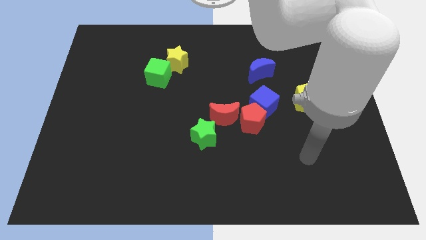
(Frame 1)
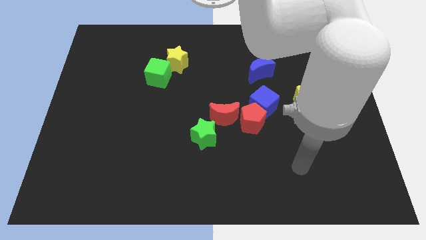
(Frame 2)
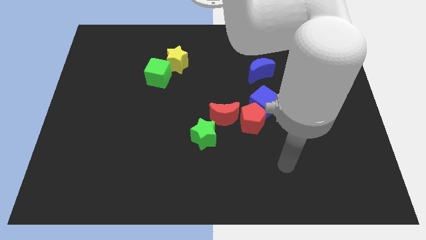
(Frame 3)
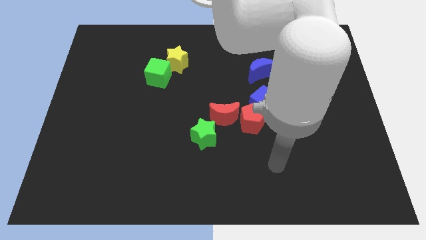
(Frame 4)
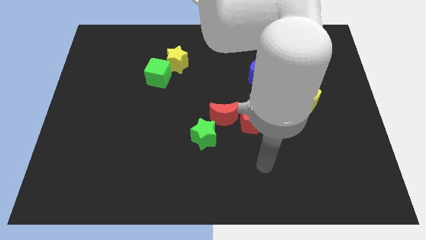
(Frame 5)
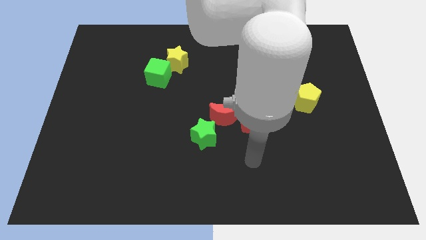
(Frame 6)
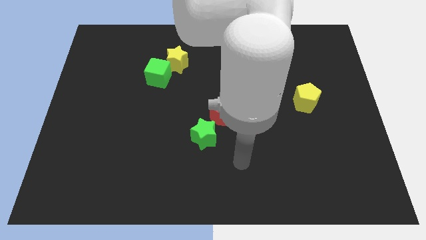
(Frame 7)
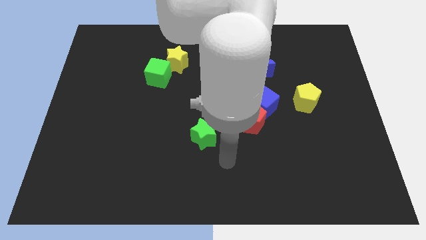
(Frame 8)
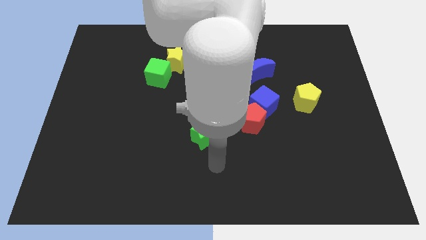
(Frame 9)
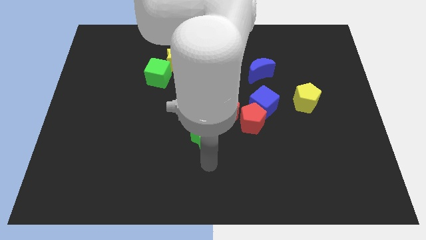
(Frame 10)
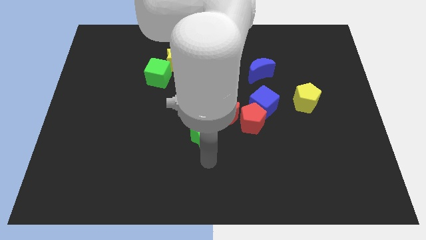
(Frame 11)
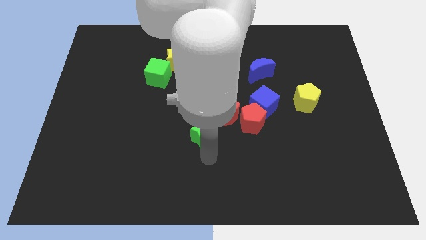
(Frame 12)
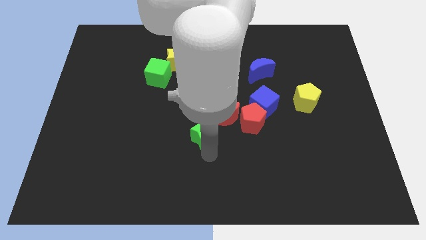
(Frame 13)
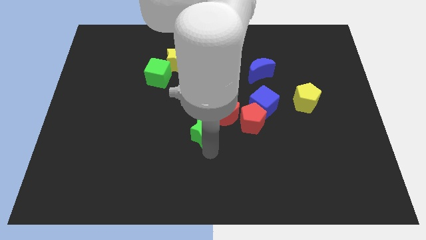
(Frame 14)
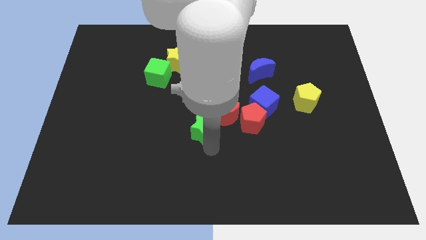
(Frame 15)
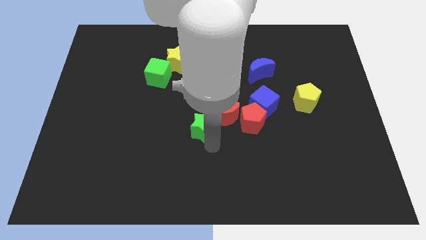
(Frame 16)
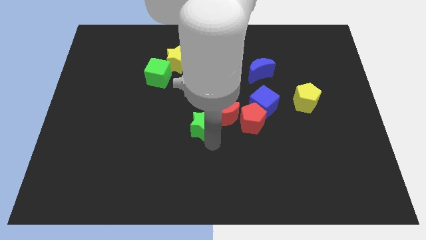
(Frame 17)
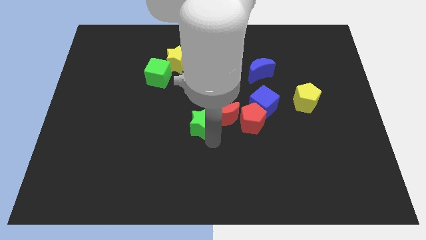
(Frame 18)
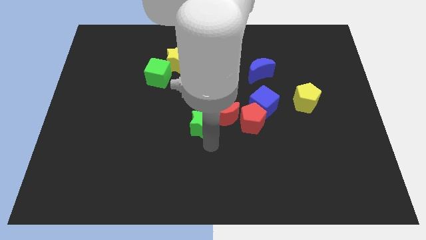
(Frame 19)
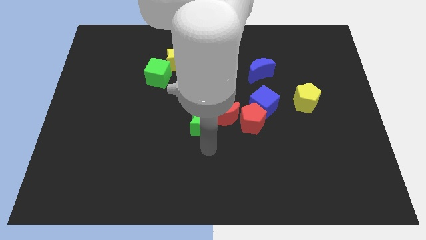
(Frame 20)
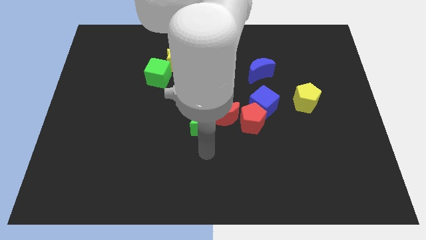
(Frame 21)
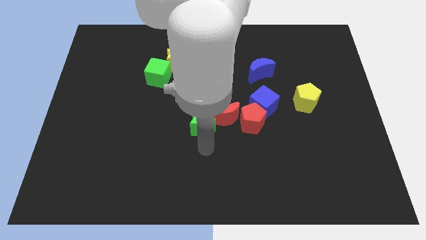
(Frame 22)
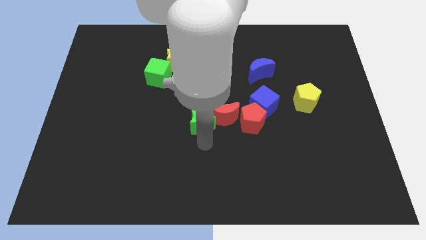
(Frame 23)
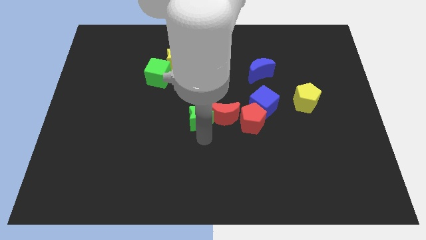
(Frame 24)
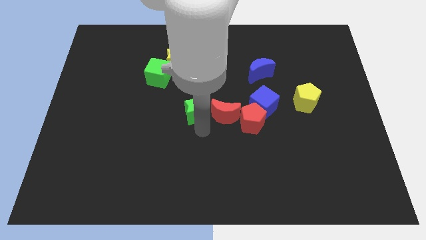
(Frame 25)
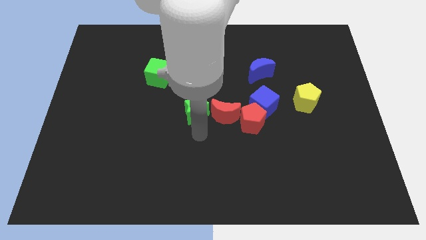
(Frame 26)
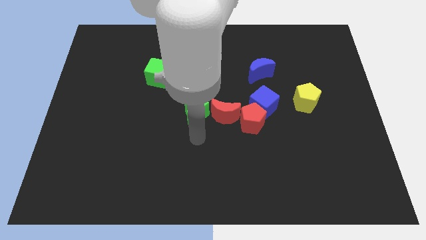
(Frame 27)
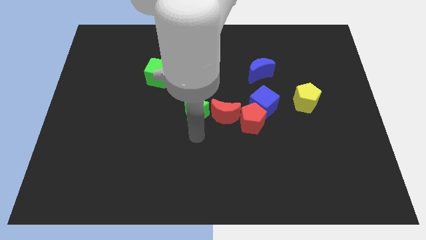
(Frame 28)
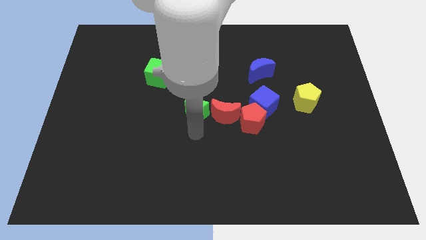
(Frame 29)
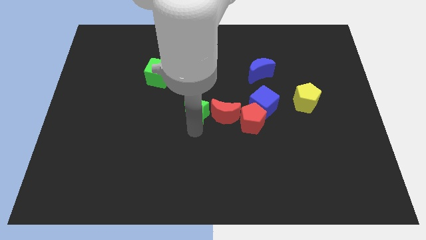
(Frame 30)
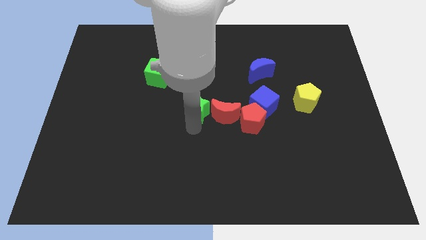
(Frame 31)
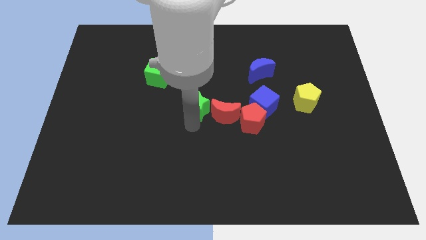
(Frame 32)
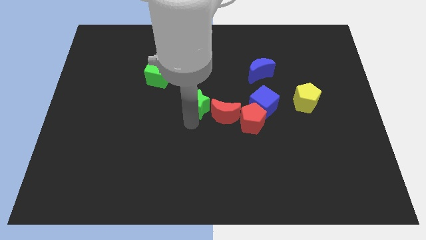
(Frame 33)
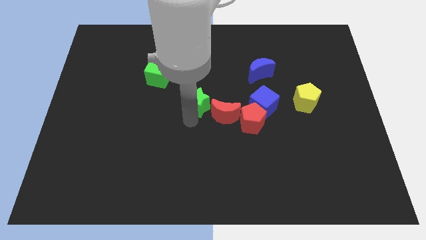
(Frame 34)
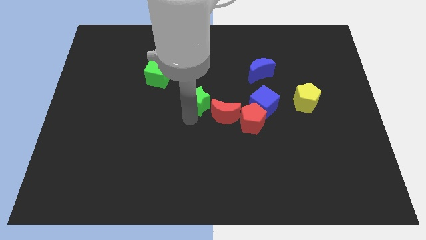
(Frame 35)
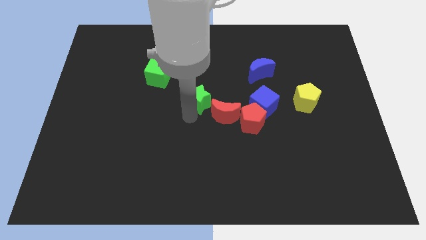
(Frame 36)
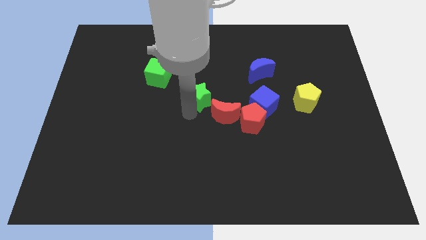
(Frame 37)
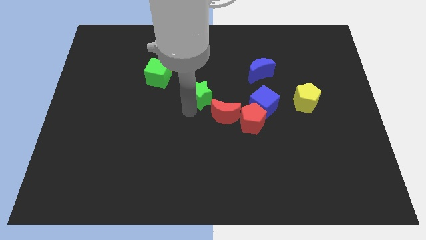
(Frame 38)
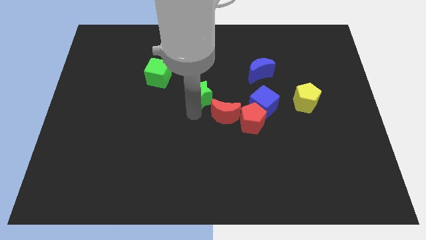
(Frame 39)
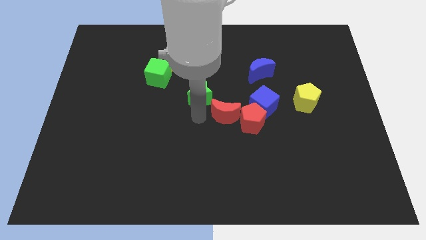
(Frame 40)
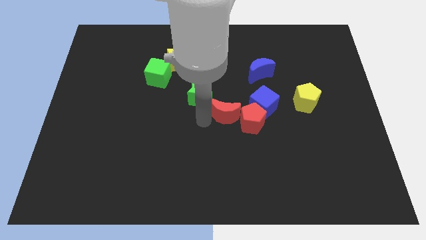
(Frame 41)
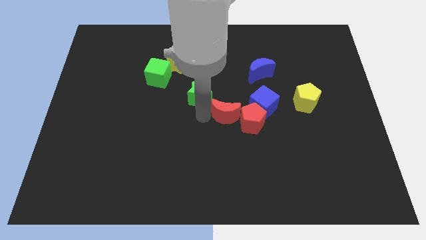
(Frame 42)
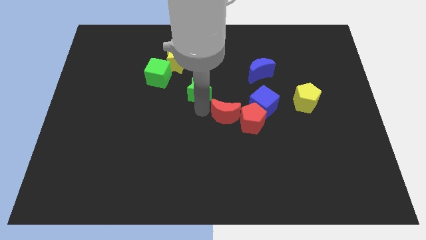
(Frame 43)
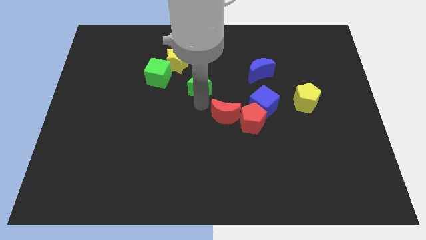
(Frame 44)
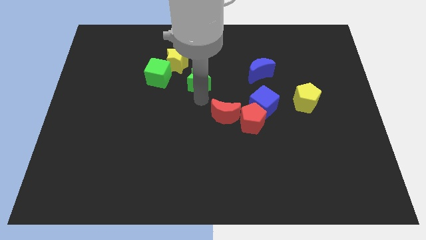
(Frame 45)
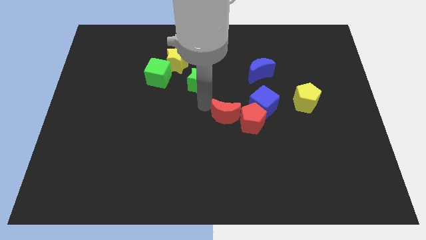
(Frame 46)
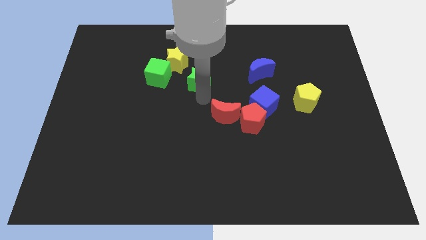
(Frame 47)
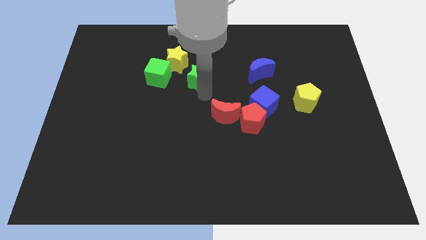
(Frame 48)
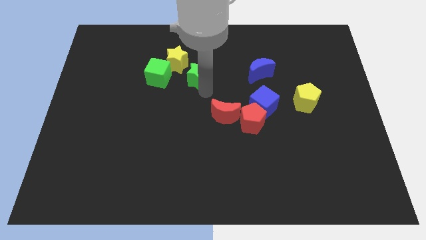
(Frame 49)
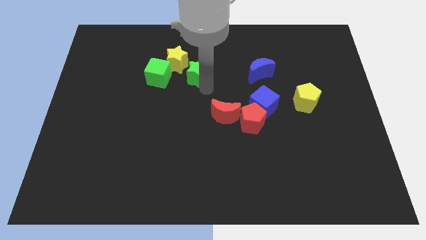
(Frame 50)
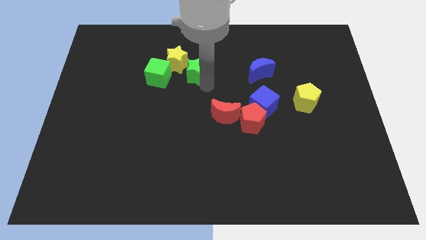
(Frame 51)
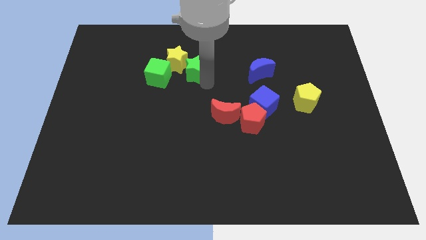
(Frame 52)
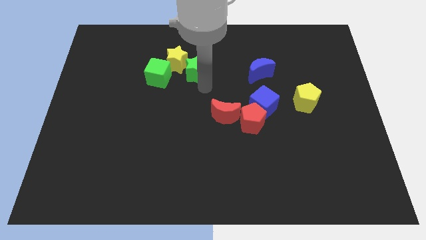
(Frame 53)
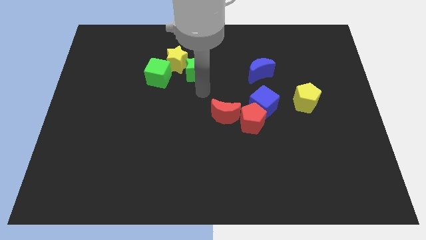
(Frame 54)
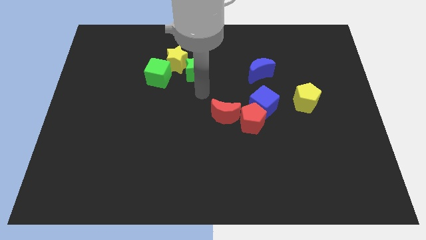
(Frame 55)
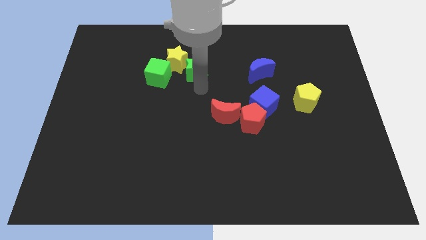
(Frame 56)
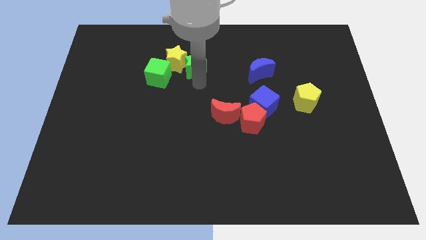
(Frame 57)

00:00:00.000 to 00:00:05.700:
put the green star to the top right of the green cube

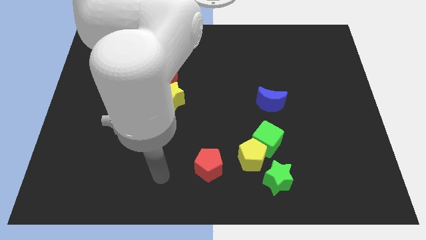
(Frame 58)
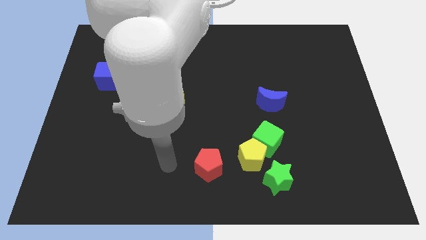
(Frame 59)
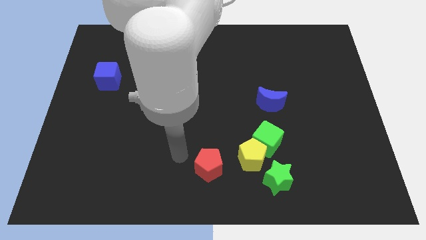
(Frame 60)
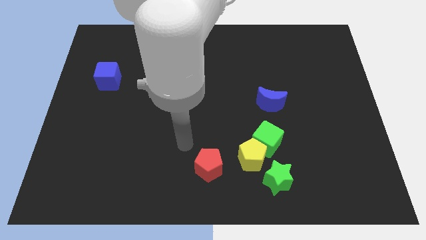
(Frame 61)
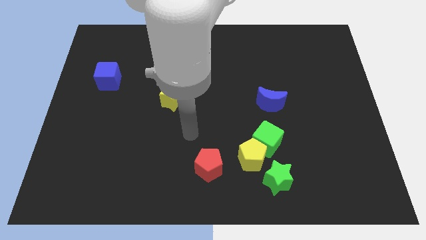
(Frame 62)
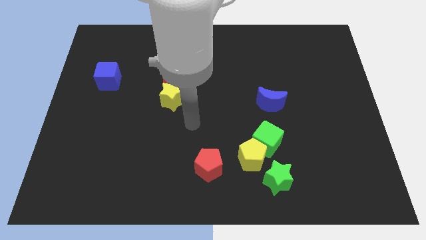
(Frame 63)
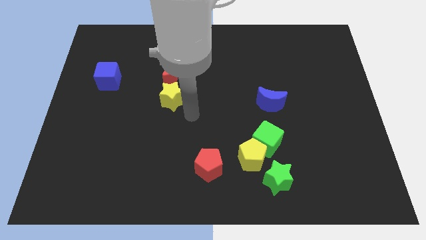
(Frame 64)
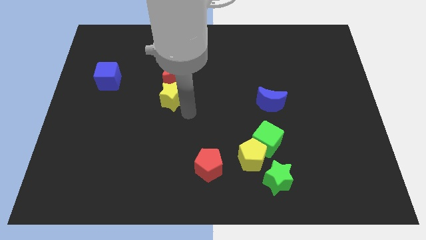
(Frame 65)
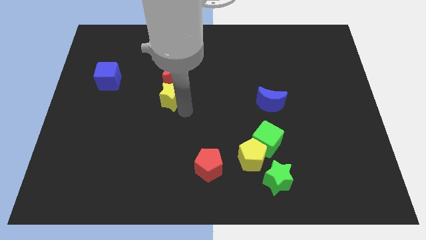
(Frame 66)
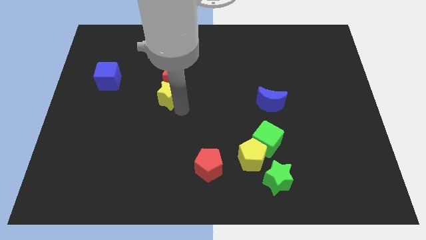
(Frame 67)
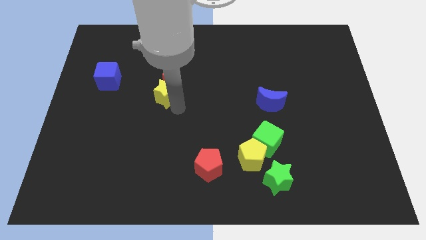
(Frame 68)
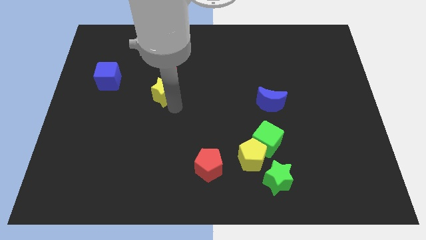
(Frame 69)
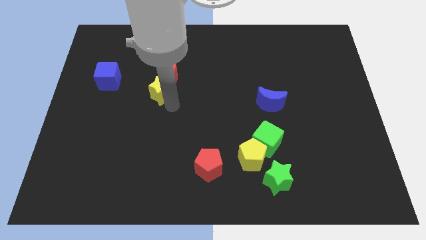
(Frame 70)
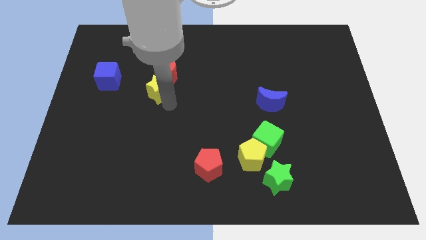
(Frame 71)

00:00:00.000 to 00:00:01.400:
move the yellow star just right of the blue cube
